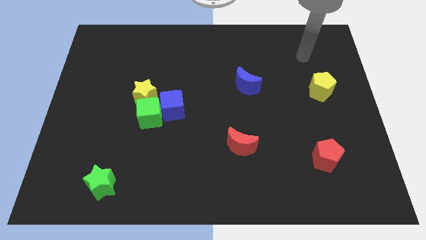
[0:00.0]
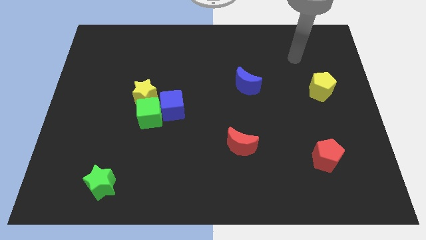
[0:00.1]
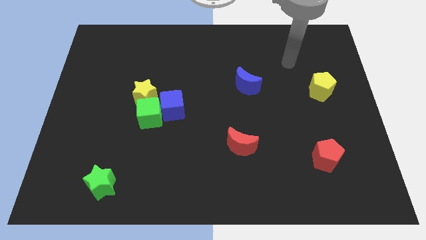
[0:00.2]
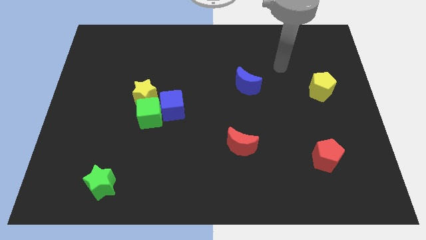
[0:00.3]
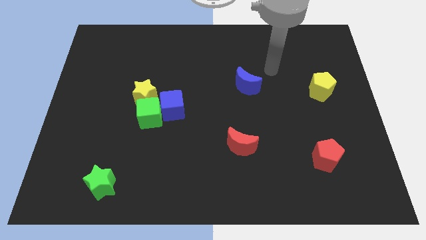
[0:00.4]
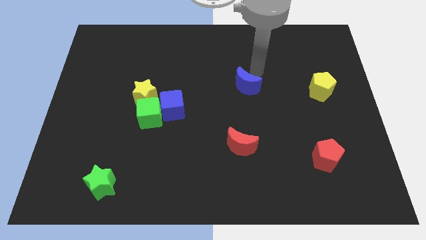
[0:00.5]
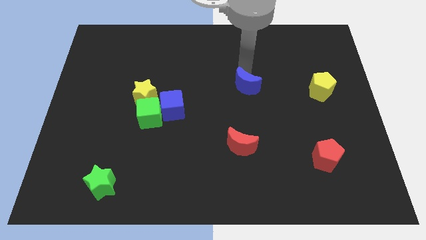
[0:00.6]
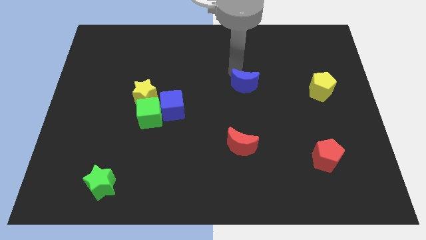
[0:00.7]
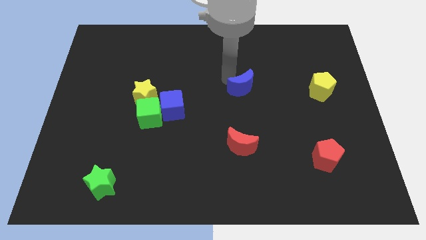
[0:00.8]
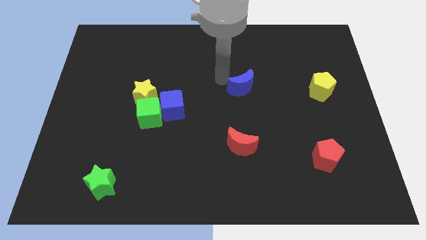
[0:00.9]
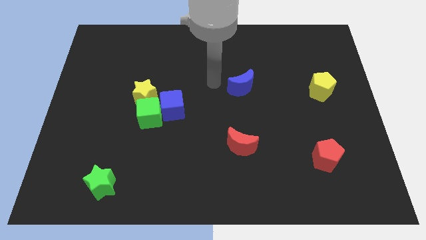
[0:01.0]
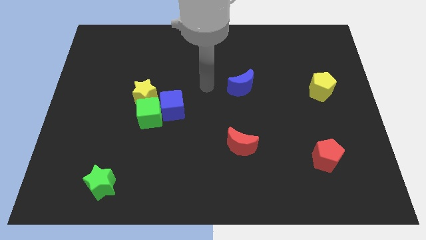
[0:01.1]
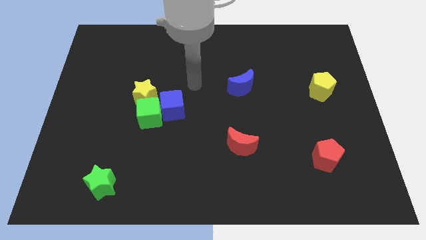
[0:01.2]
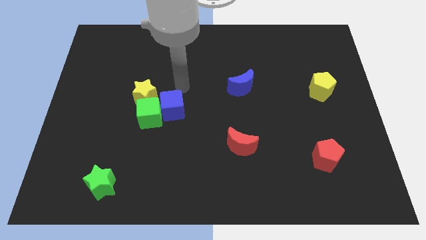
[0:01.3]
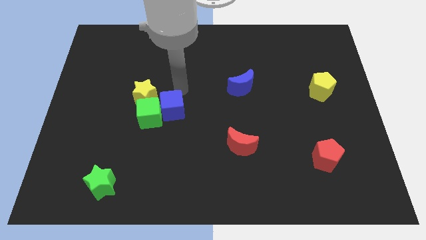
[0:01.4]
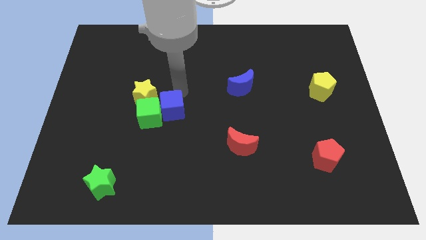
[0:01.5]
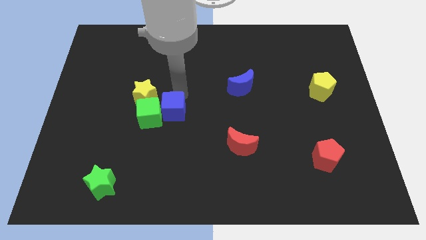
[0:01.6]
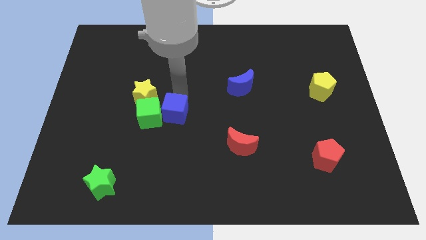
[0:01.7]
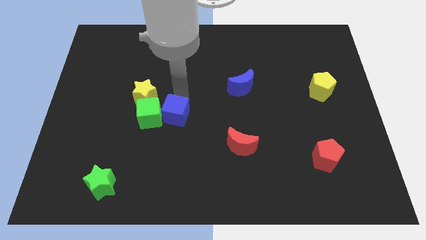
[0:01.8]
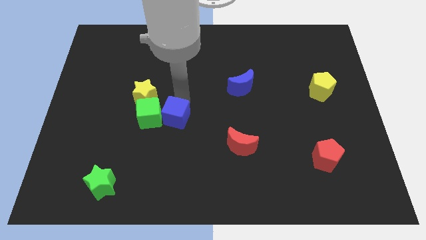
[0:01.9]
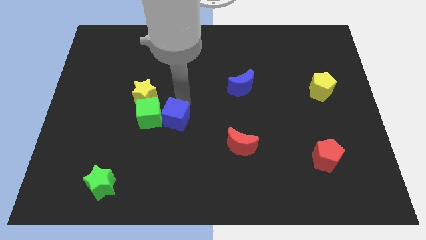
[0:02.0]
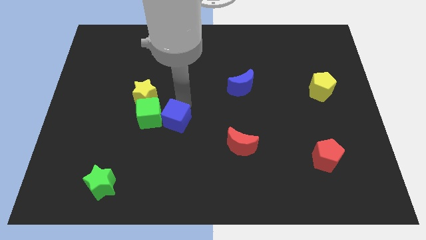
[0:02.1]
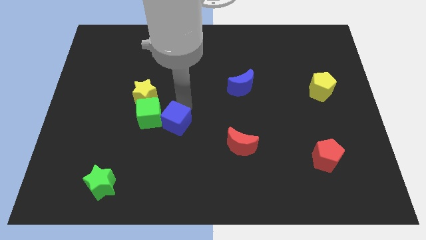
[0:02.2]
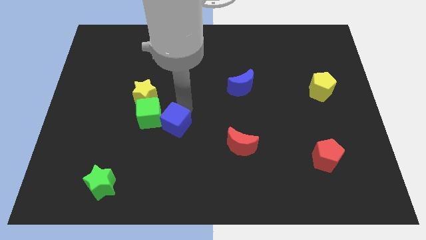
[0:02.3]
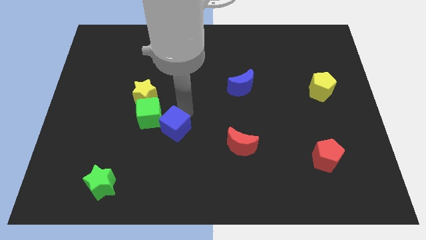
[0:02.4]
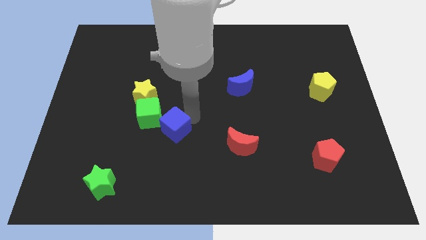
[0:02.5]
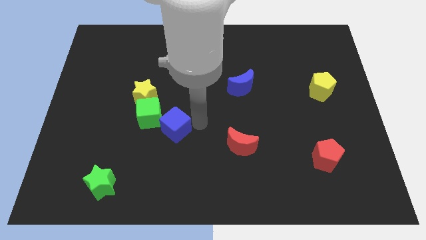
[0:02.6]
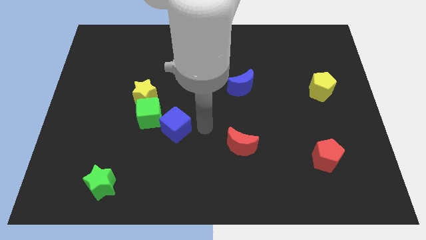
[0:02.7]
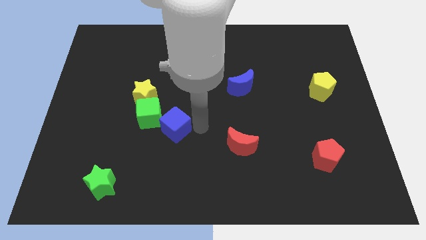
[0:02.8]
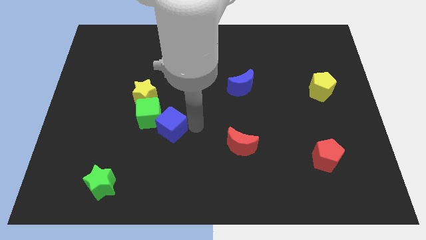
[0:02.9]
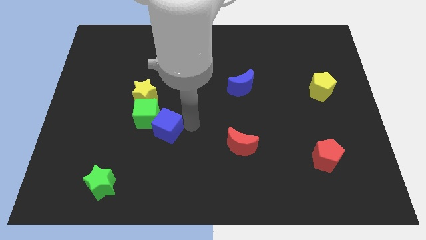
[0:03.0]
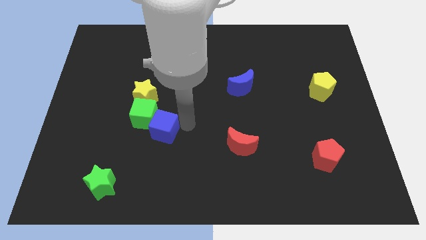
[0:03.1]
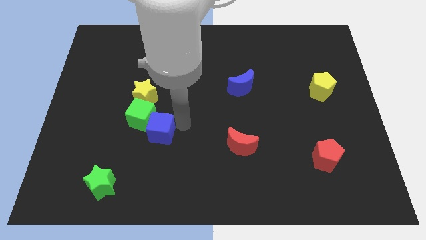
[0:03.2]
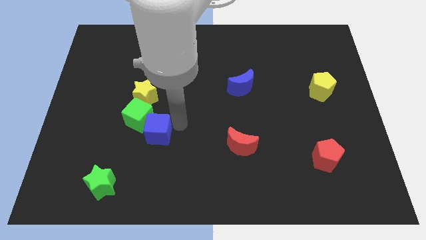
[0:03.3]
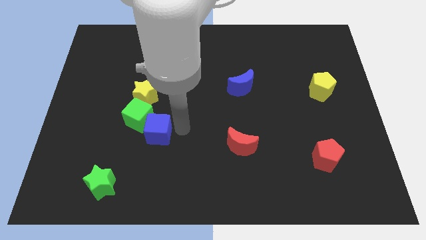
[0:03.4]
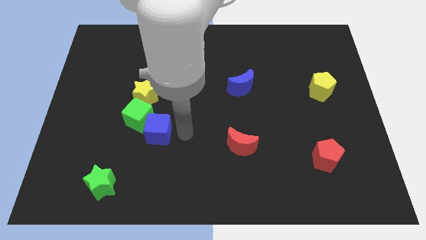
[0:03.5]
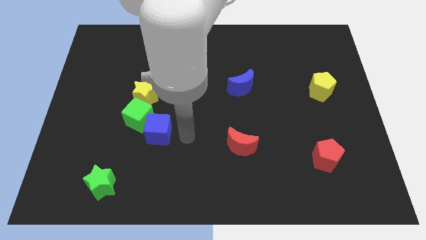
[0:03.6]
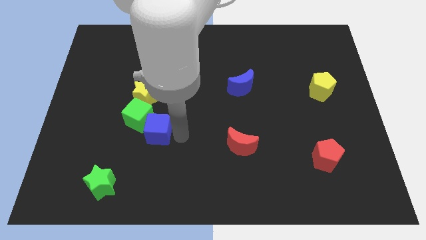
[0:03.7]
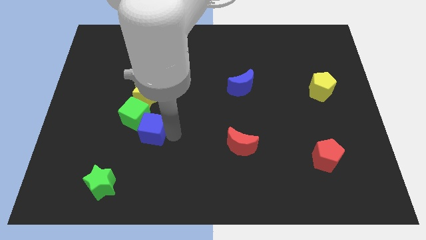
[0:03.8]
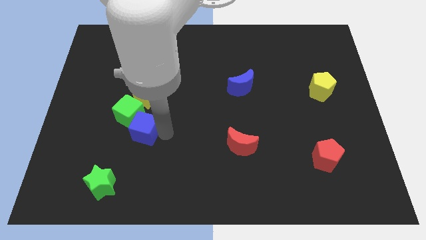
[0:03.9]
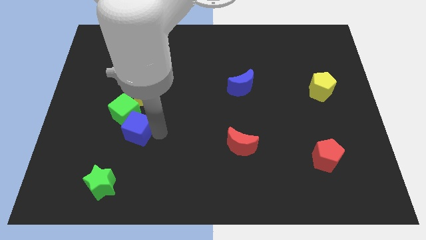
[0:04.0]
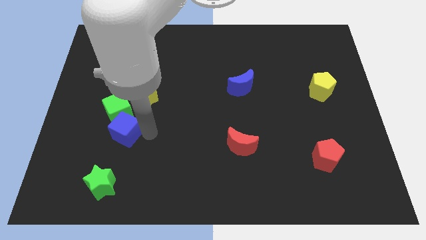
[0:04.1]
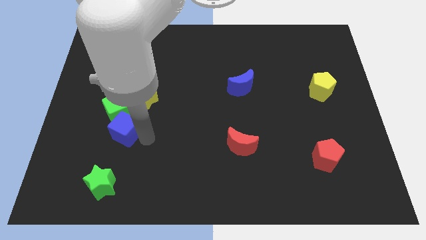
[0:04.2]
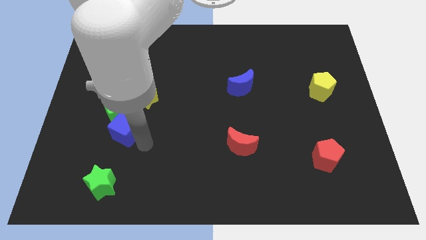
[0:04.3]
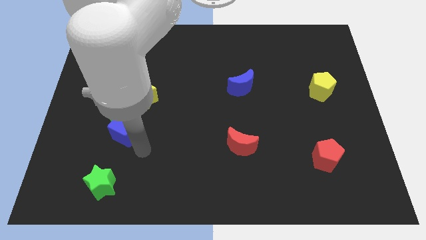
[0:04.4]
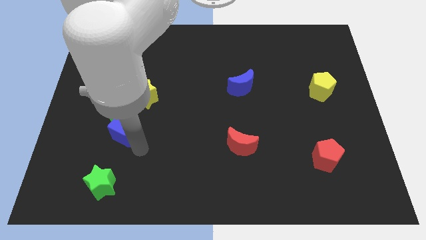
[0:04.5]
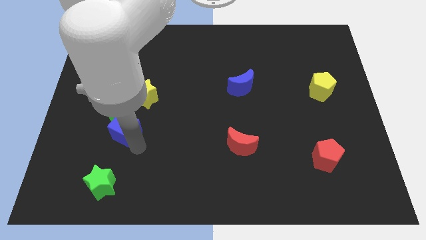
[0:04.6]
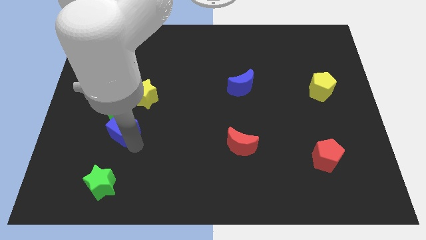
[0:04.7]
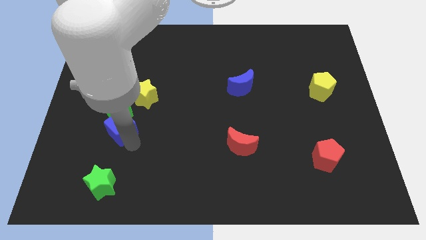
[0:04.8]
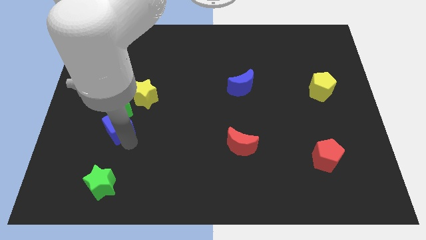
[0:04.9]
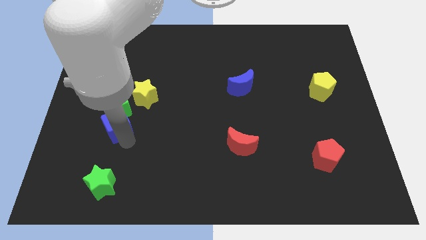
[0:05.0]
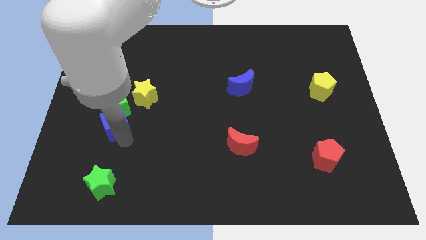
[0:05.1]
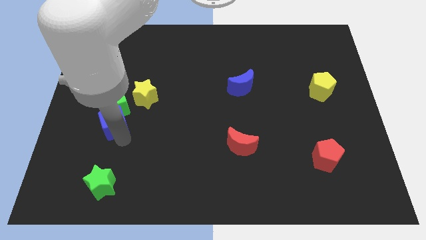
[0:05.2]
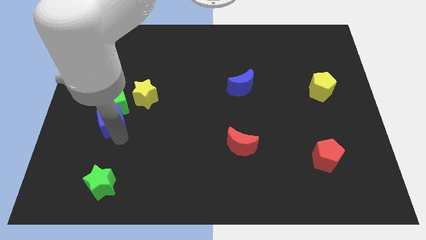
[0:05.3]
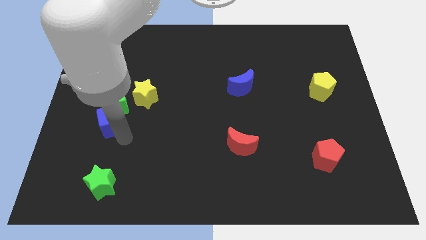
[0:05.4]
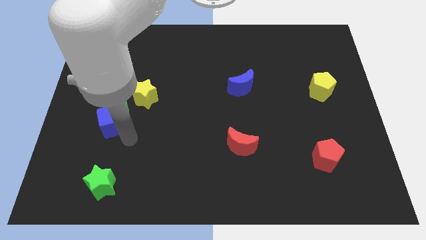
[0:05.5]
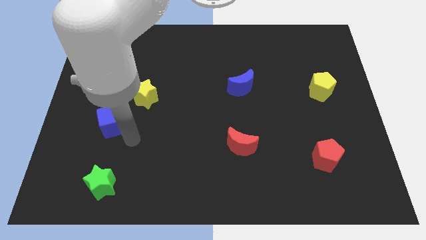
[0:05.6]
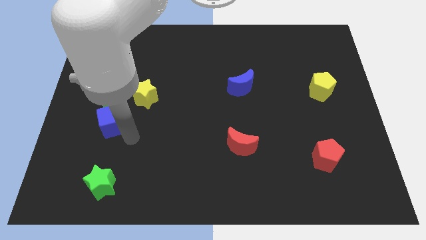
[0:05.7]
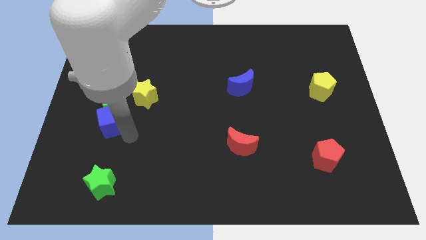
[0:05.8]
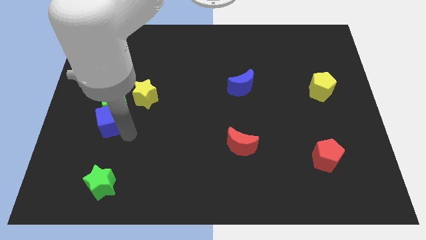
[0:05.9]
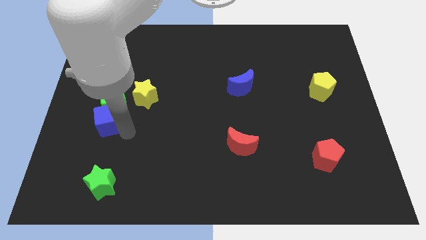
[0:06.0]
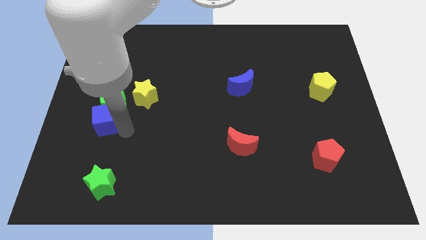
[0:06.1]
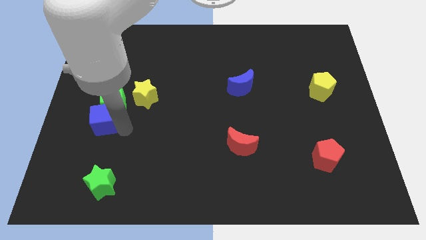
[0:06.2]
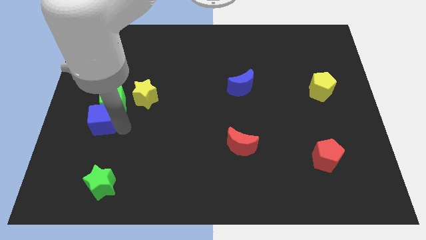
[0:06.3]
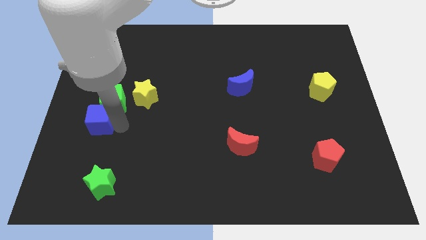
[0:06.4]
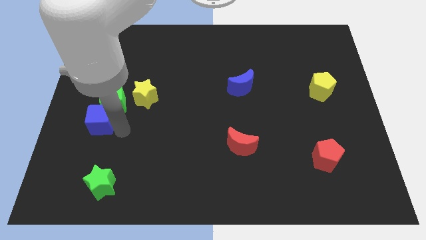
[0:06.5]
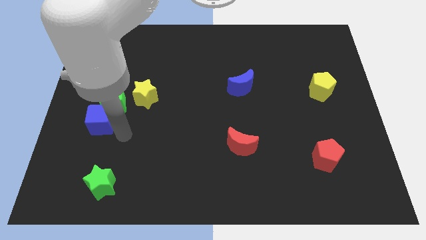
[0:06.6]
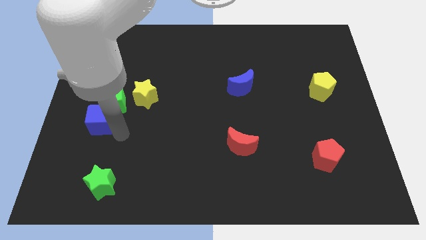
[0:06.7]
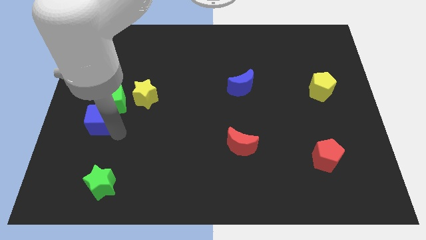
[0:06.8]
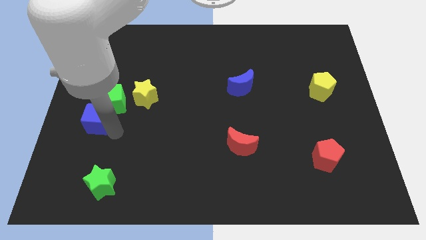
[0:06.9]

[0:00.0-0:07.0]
move the blue cube to the center left
